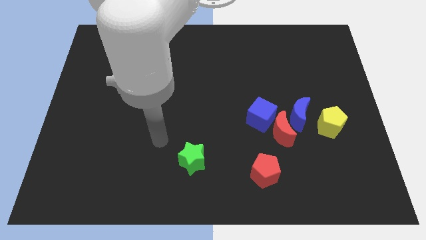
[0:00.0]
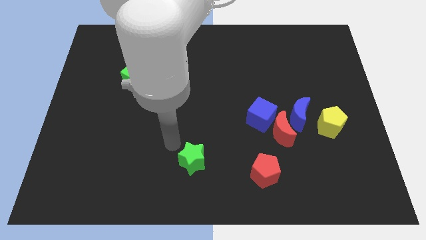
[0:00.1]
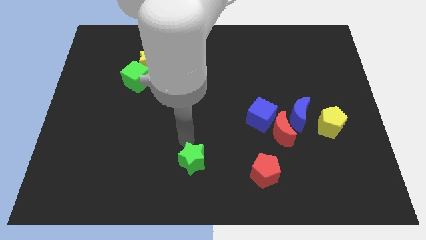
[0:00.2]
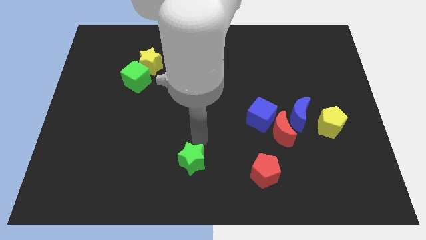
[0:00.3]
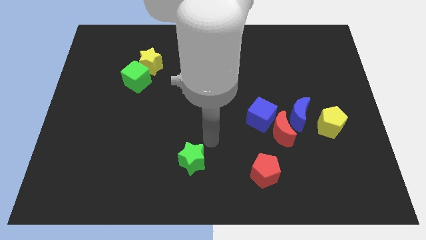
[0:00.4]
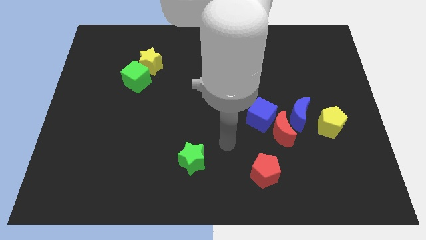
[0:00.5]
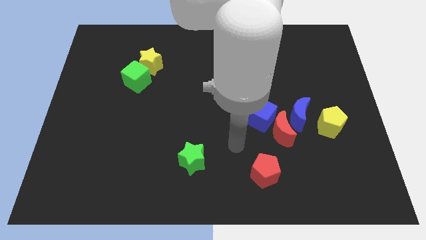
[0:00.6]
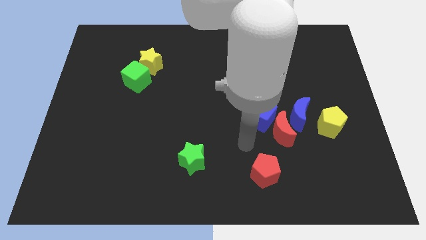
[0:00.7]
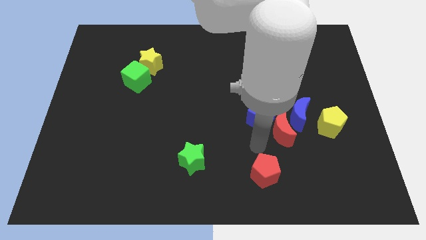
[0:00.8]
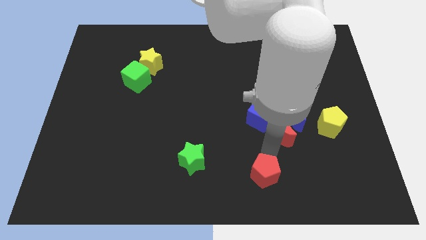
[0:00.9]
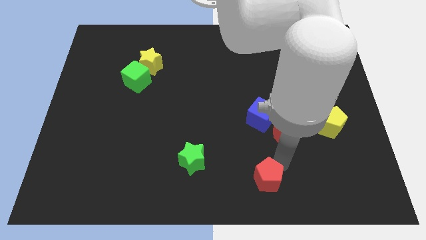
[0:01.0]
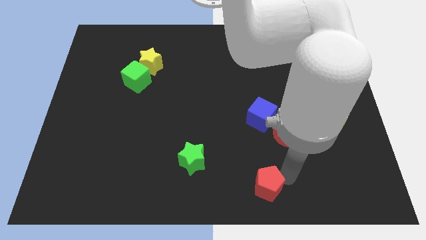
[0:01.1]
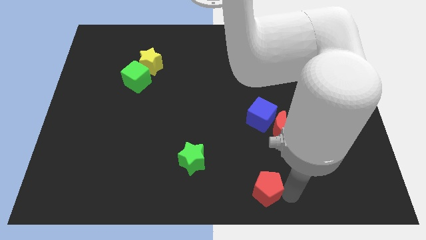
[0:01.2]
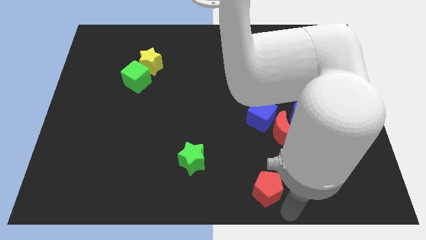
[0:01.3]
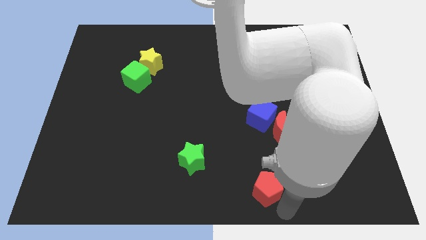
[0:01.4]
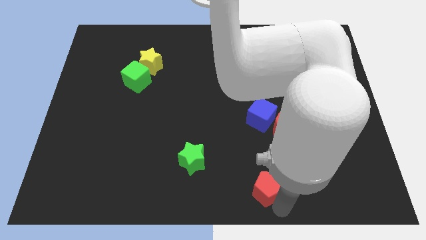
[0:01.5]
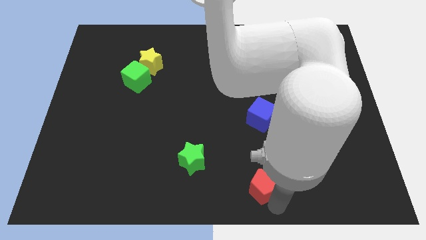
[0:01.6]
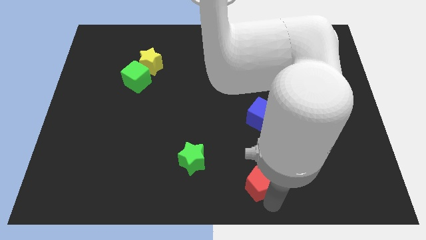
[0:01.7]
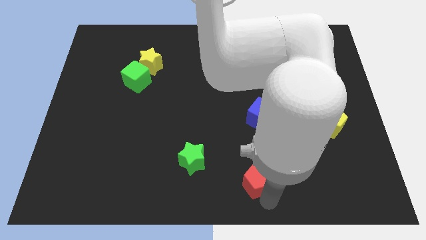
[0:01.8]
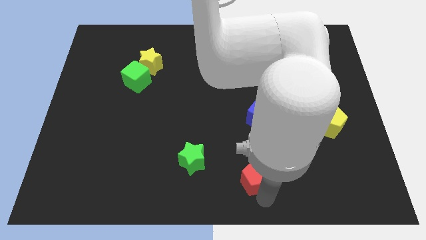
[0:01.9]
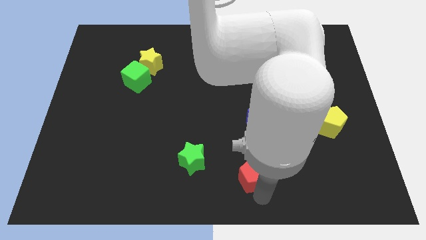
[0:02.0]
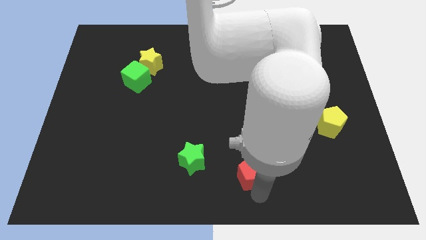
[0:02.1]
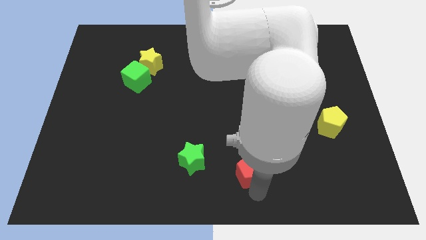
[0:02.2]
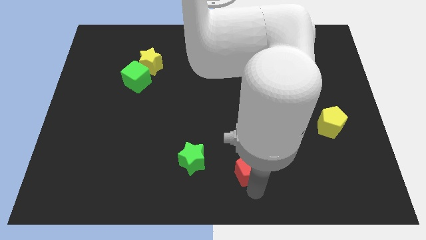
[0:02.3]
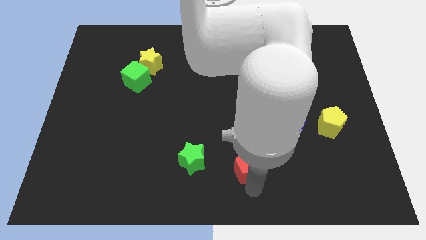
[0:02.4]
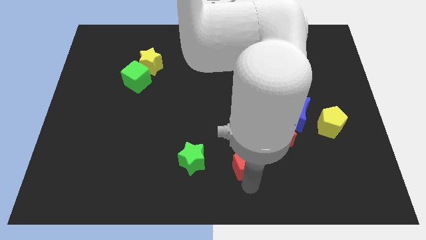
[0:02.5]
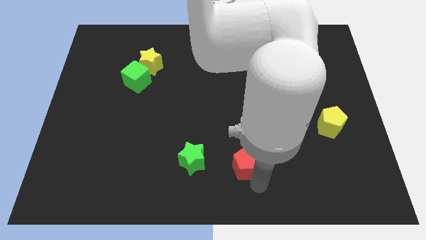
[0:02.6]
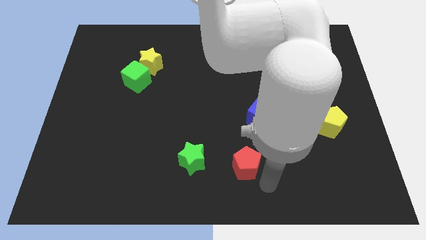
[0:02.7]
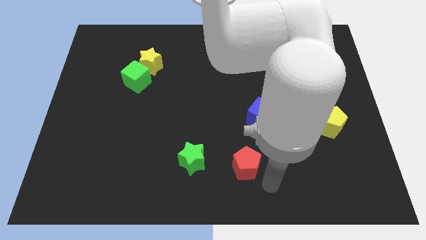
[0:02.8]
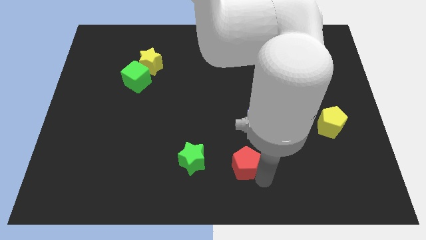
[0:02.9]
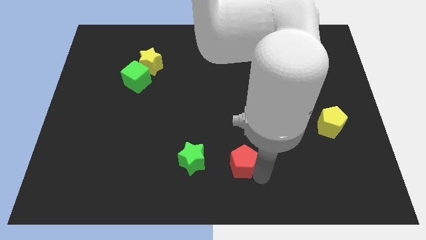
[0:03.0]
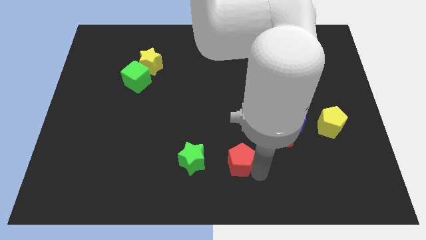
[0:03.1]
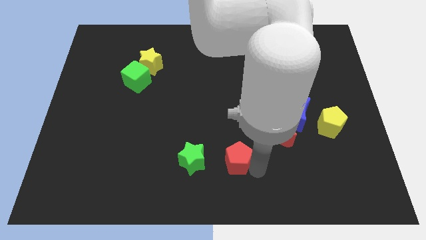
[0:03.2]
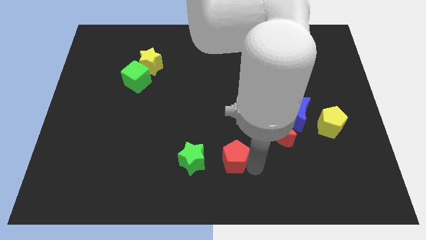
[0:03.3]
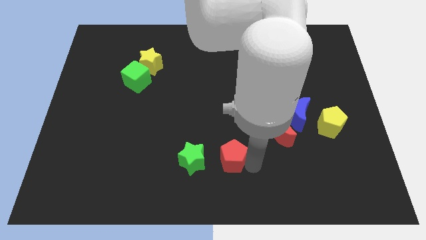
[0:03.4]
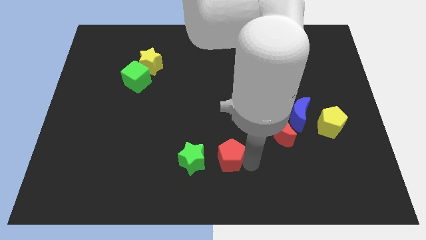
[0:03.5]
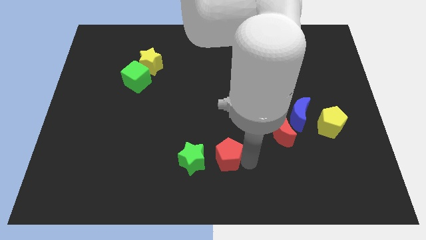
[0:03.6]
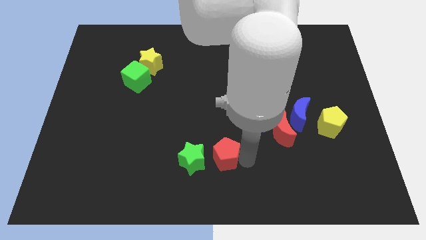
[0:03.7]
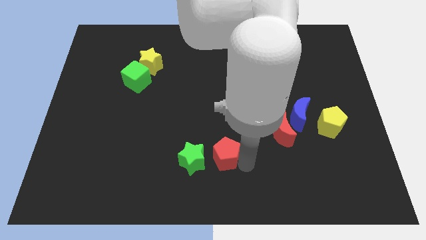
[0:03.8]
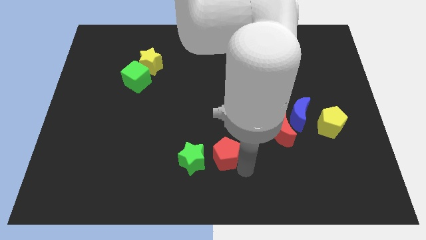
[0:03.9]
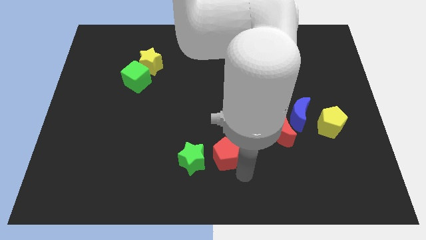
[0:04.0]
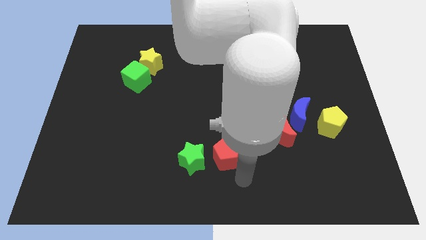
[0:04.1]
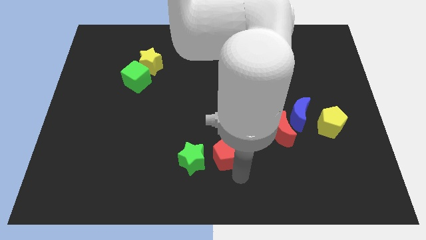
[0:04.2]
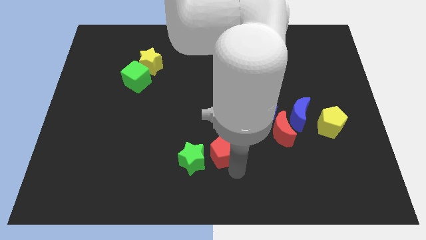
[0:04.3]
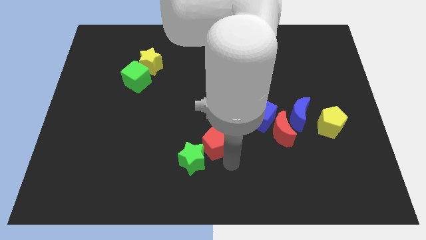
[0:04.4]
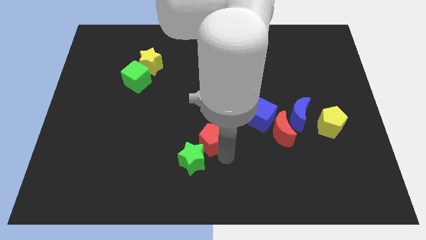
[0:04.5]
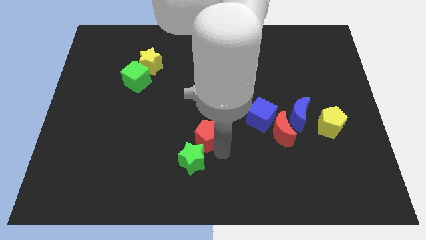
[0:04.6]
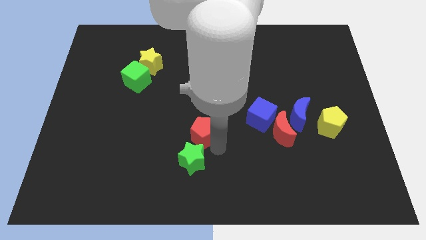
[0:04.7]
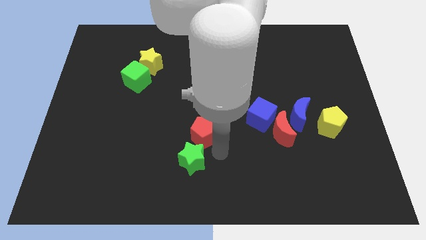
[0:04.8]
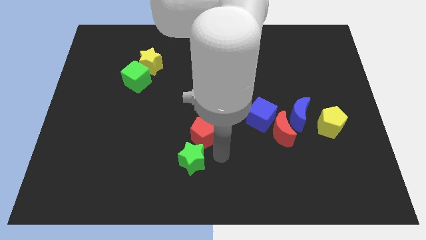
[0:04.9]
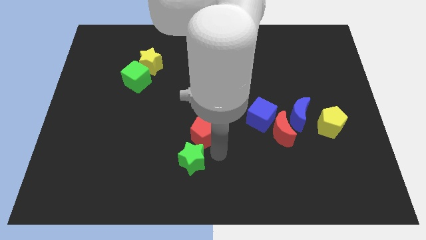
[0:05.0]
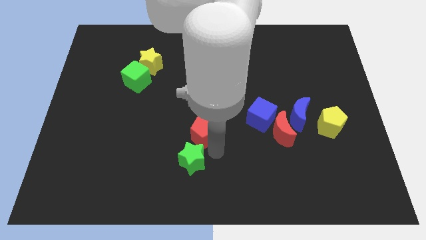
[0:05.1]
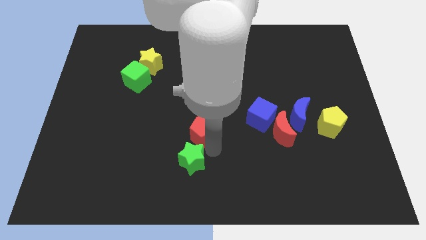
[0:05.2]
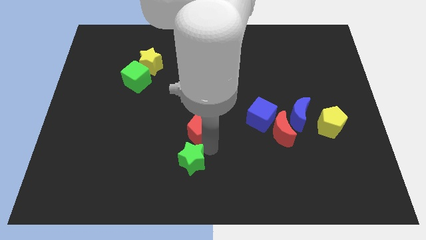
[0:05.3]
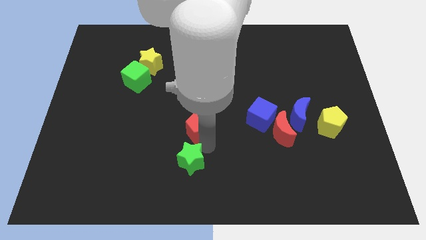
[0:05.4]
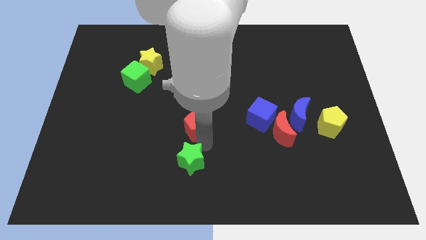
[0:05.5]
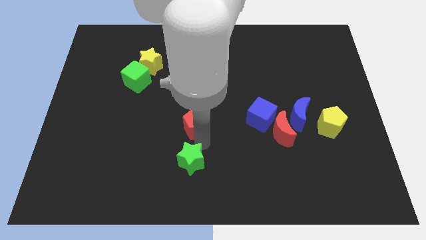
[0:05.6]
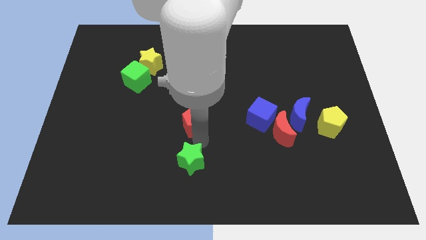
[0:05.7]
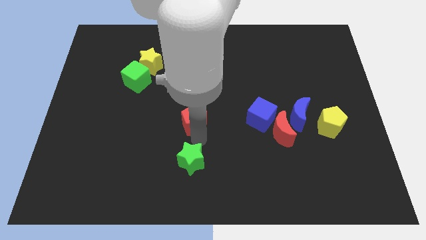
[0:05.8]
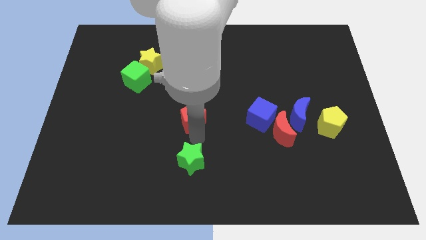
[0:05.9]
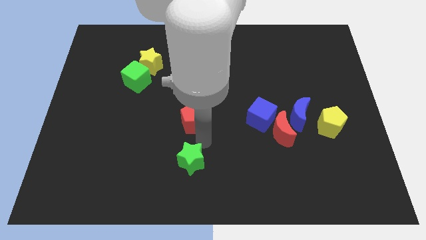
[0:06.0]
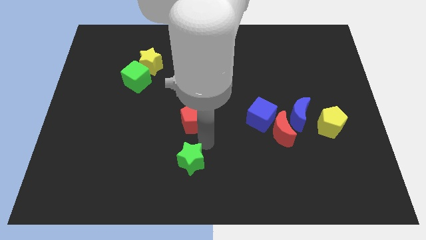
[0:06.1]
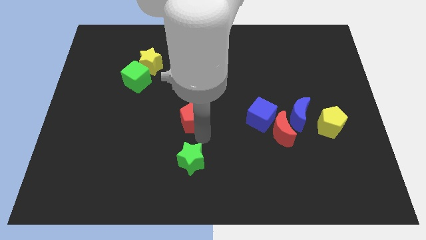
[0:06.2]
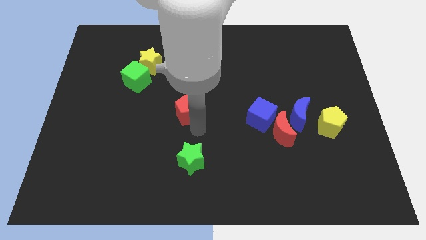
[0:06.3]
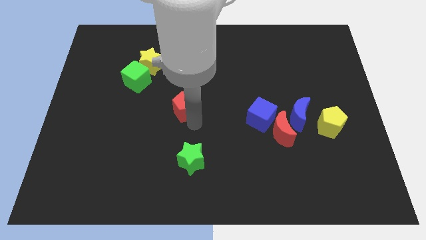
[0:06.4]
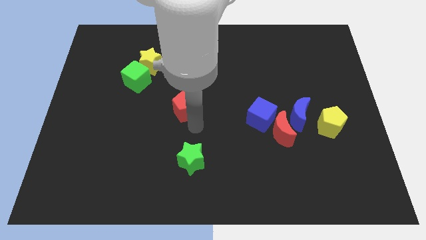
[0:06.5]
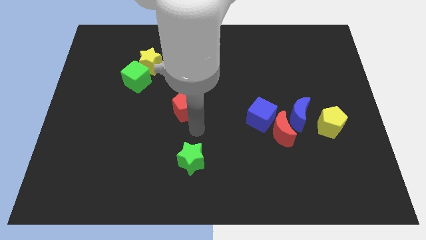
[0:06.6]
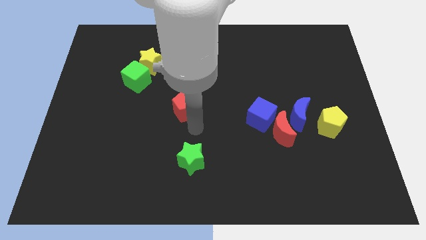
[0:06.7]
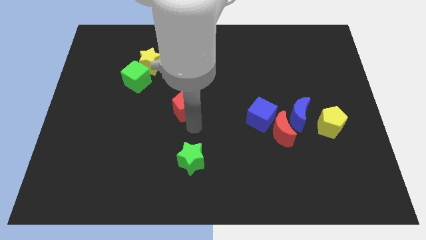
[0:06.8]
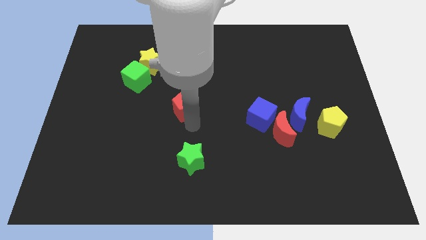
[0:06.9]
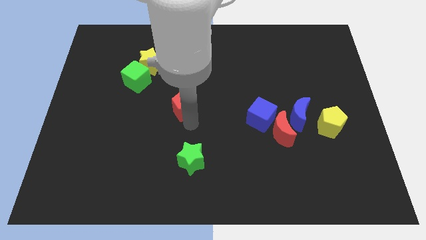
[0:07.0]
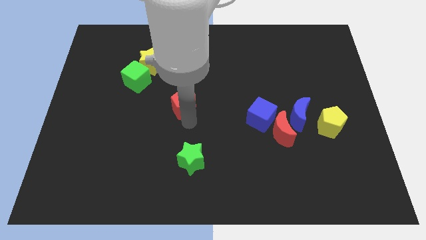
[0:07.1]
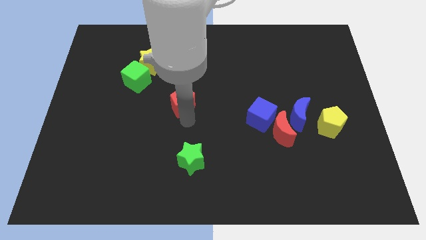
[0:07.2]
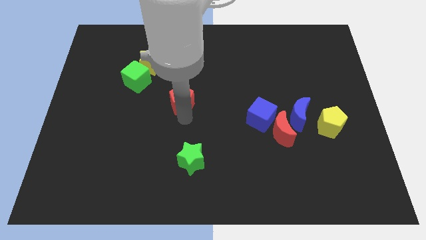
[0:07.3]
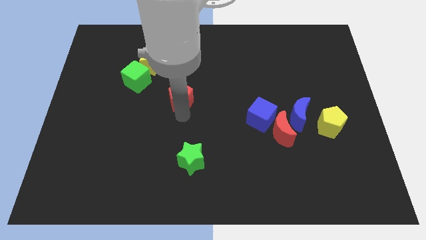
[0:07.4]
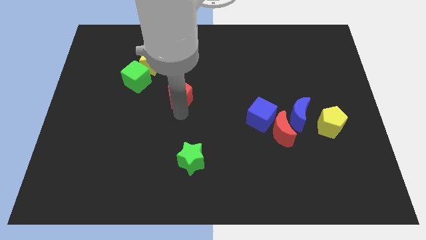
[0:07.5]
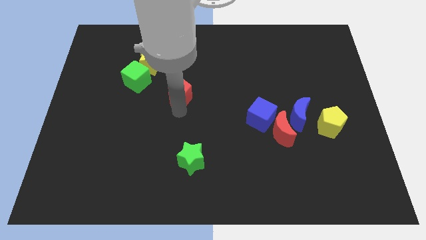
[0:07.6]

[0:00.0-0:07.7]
put the red pentagon diagonally down and to the right of the yellow star

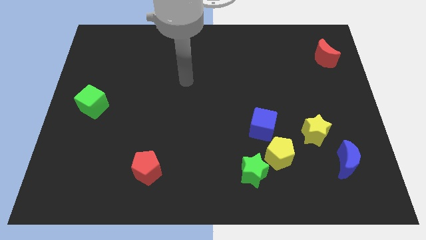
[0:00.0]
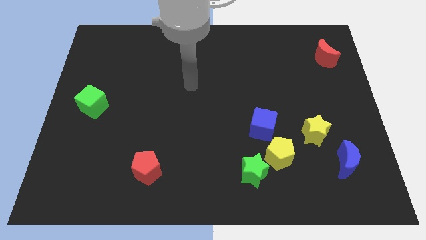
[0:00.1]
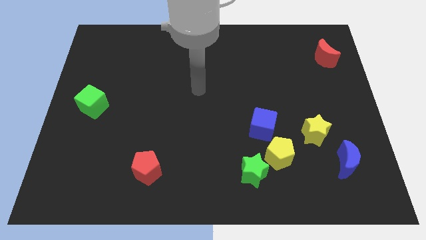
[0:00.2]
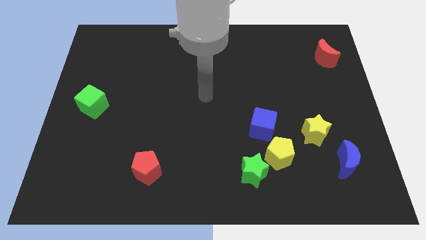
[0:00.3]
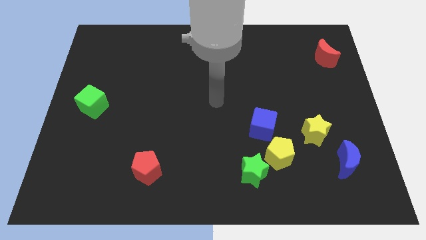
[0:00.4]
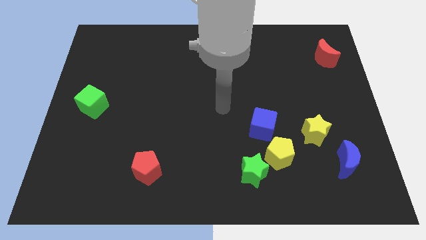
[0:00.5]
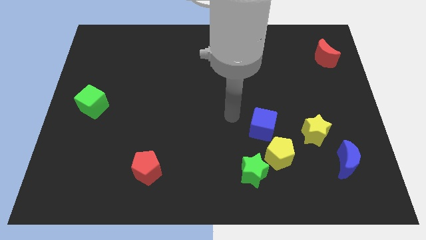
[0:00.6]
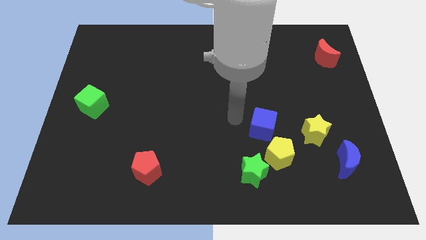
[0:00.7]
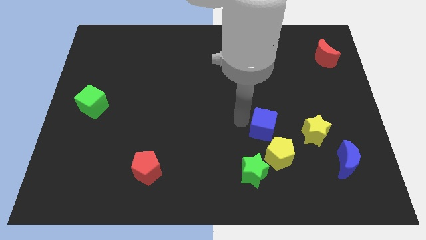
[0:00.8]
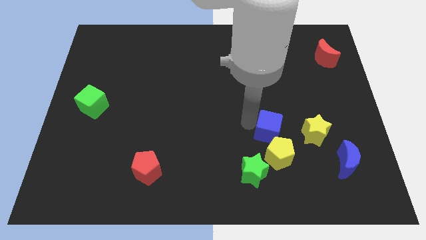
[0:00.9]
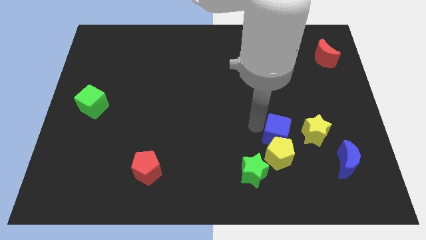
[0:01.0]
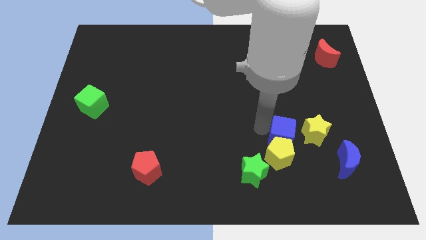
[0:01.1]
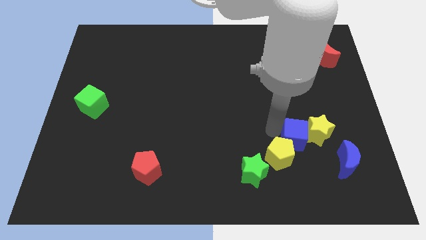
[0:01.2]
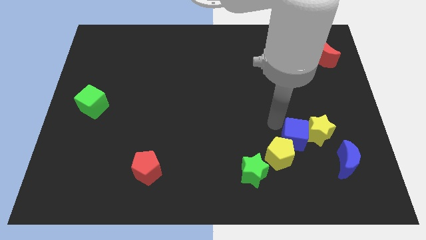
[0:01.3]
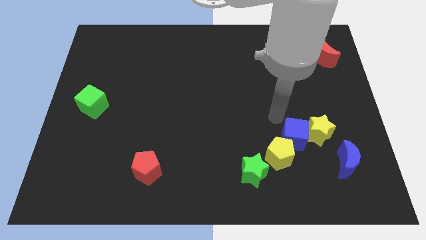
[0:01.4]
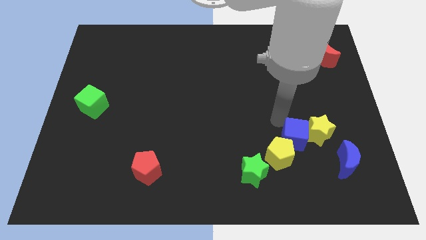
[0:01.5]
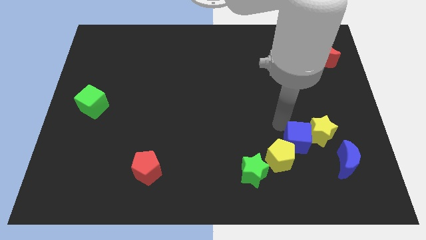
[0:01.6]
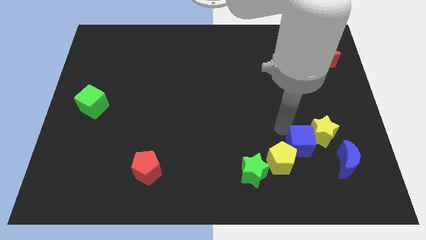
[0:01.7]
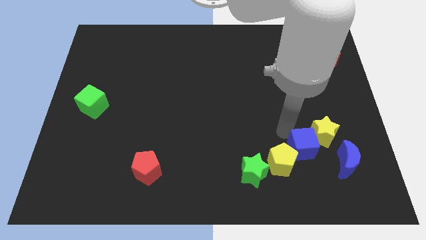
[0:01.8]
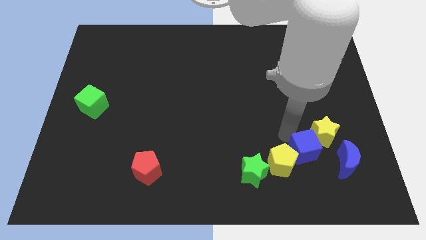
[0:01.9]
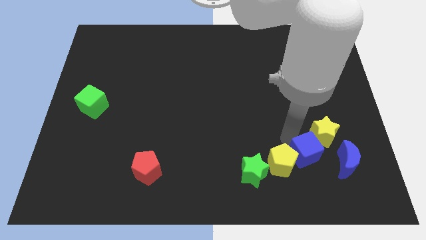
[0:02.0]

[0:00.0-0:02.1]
put the blue cube to the bottom of the yellow star
